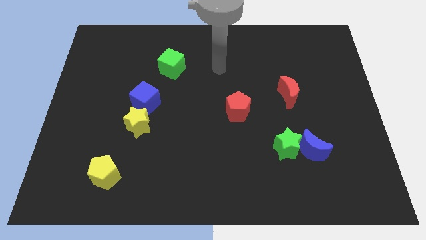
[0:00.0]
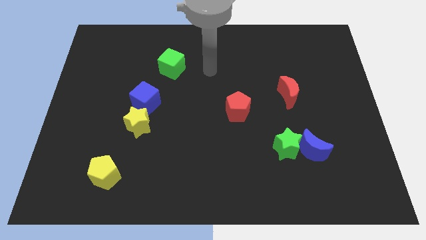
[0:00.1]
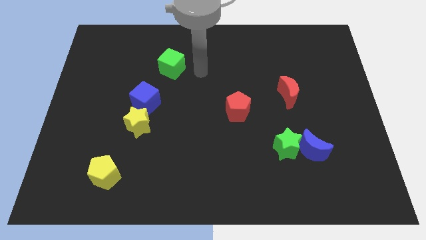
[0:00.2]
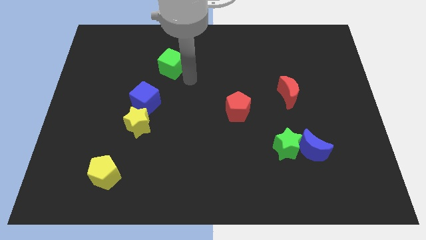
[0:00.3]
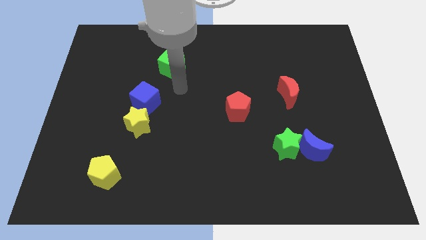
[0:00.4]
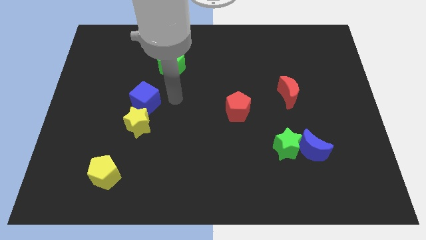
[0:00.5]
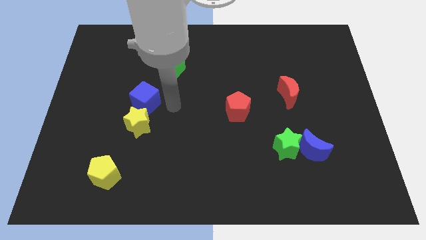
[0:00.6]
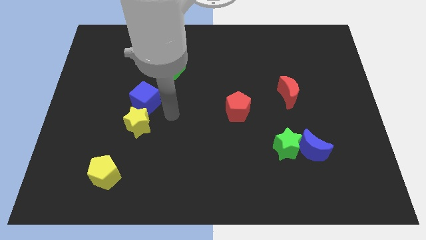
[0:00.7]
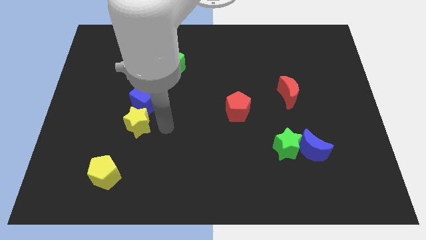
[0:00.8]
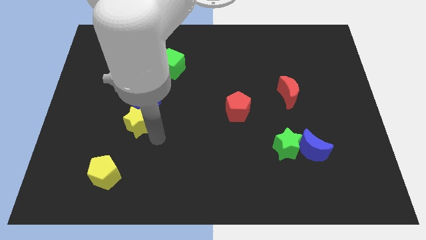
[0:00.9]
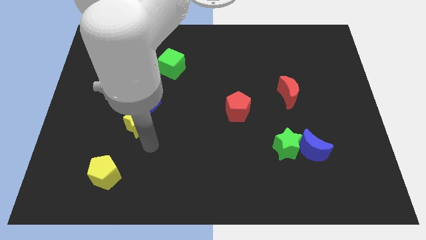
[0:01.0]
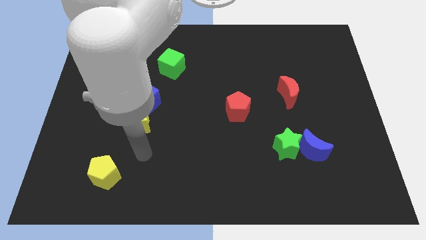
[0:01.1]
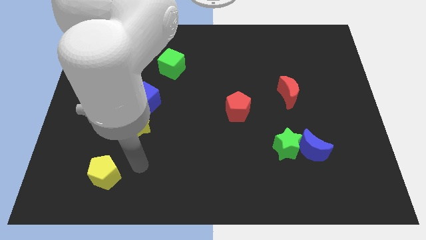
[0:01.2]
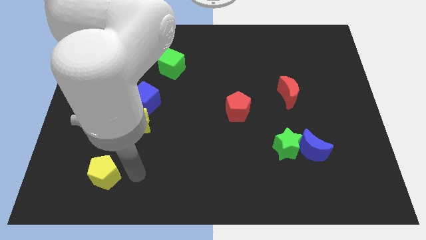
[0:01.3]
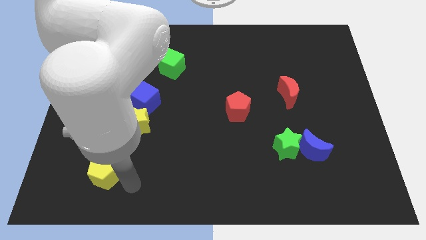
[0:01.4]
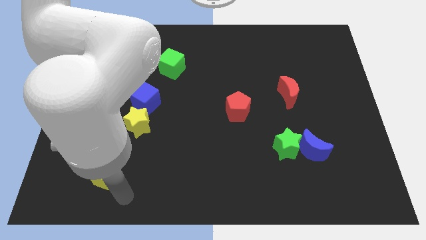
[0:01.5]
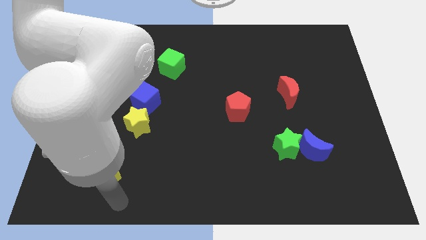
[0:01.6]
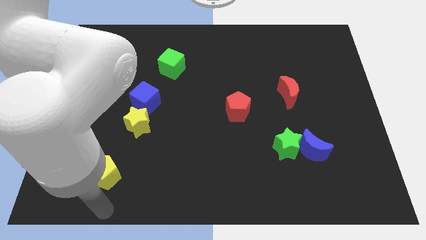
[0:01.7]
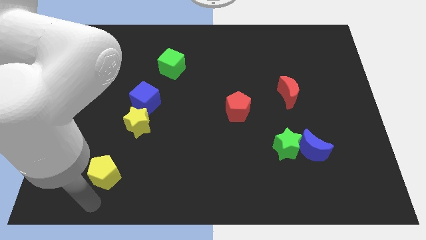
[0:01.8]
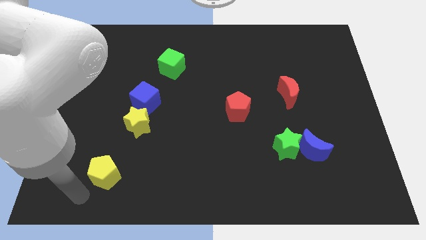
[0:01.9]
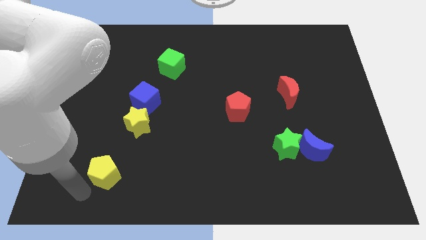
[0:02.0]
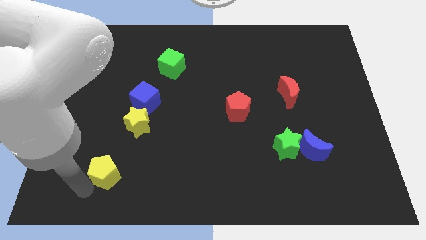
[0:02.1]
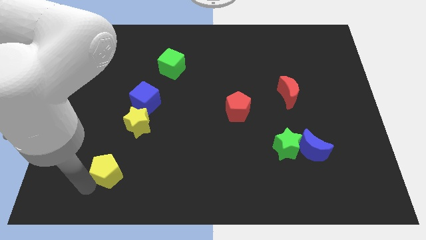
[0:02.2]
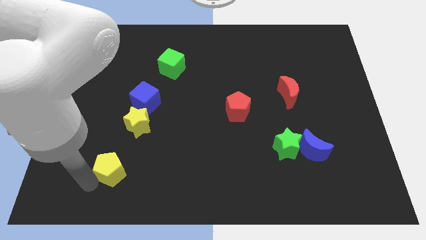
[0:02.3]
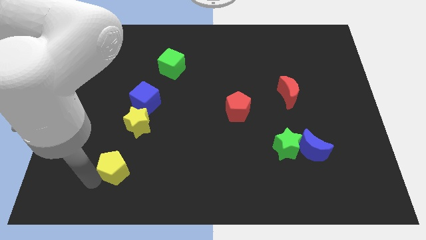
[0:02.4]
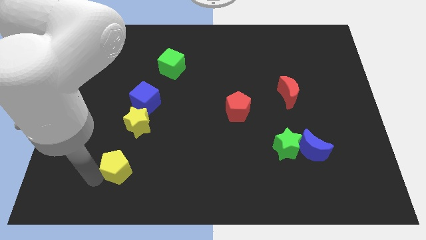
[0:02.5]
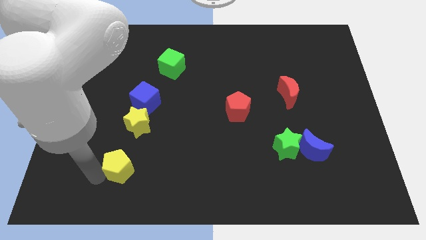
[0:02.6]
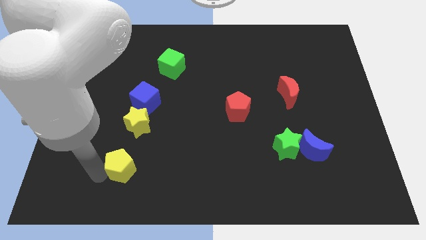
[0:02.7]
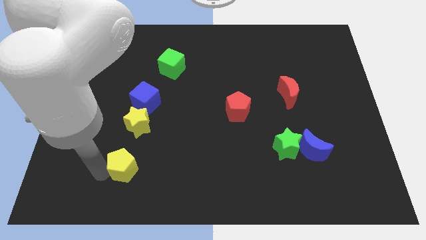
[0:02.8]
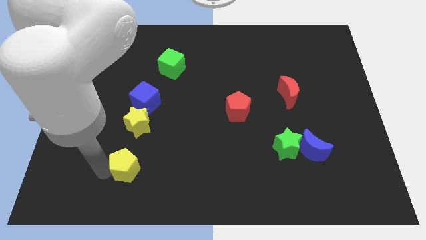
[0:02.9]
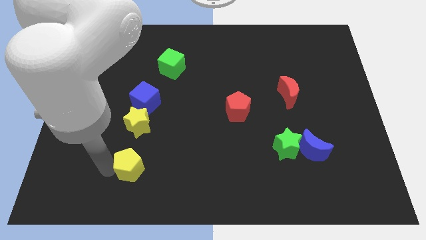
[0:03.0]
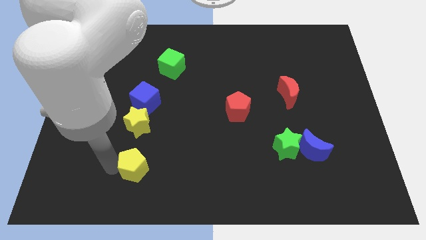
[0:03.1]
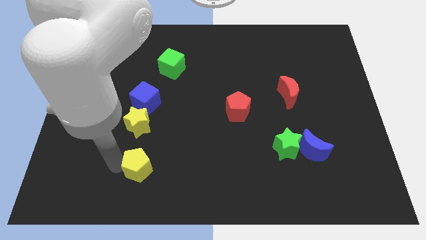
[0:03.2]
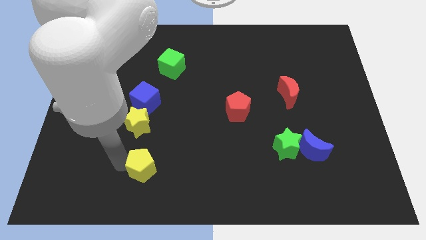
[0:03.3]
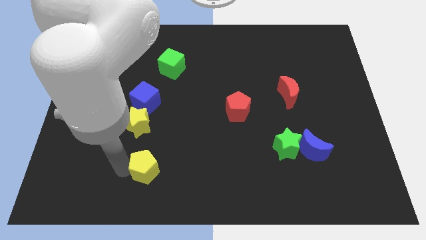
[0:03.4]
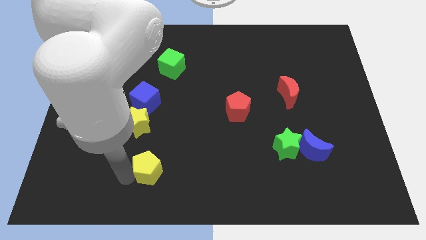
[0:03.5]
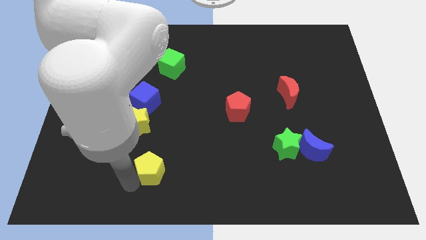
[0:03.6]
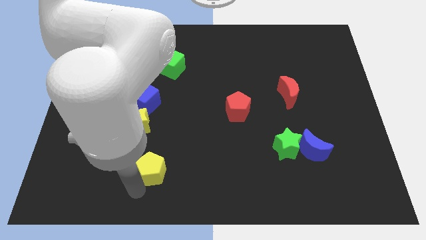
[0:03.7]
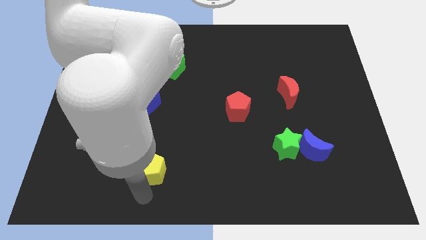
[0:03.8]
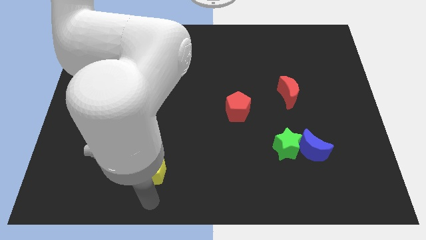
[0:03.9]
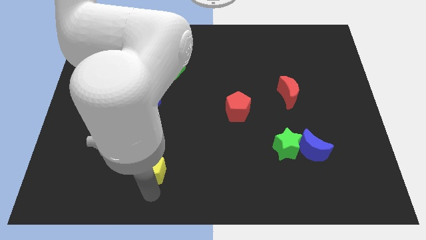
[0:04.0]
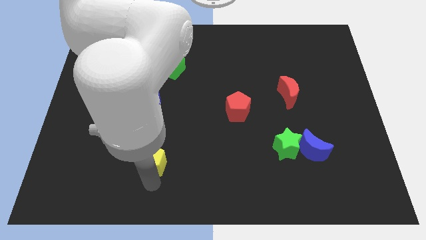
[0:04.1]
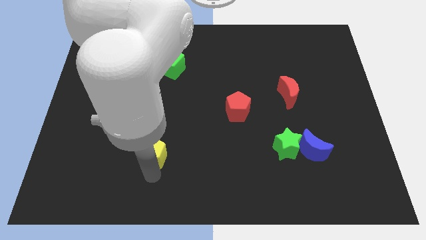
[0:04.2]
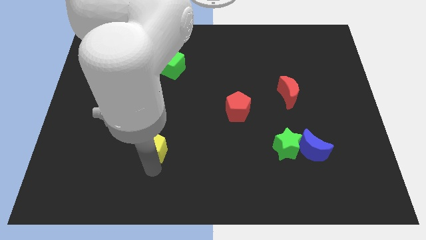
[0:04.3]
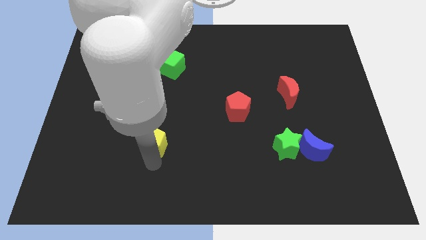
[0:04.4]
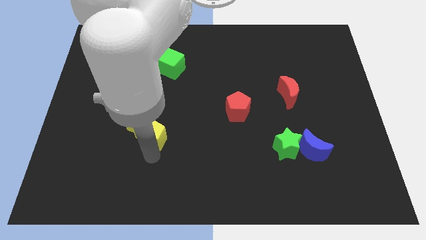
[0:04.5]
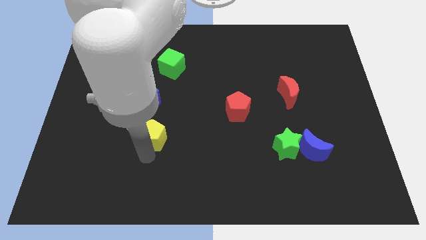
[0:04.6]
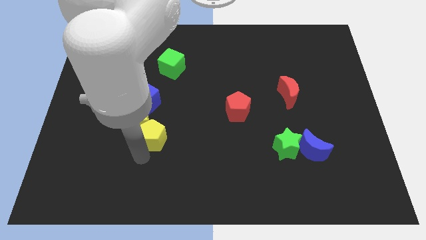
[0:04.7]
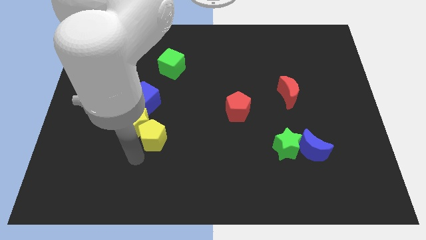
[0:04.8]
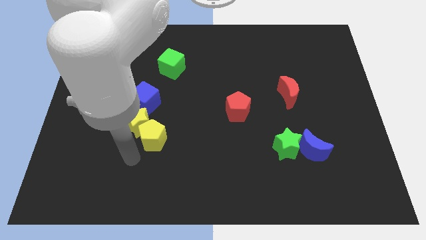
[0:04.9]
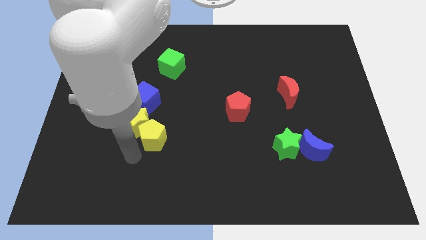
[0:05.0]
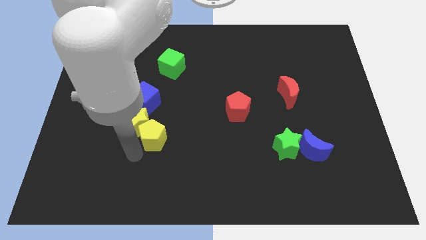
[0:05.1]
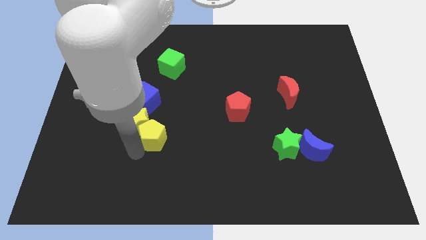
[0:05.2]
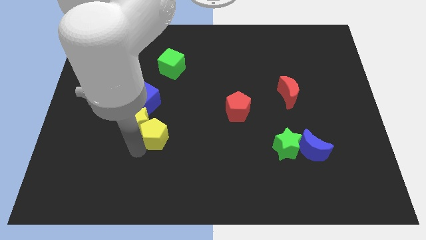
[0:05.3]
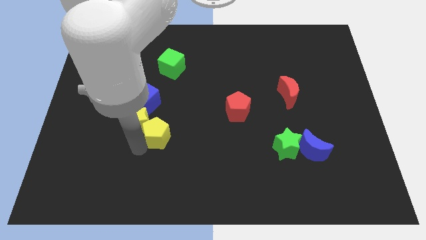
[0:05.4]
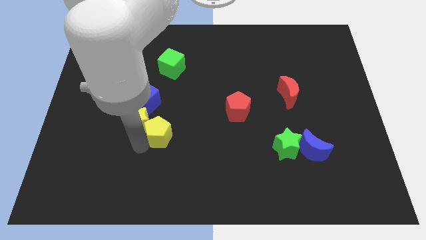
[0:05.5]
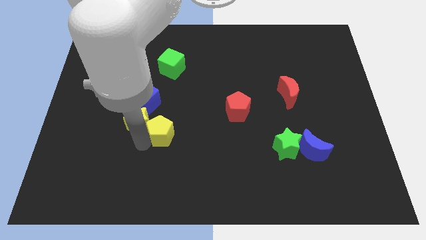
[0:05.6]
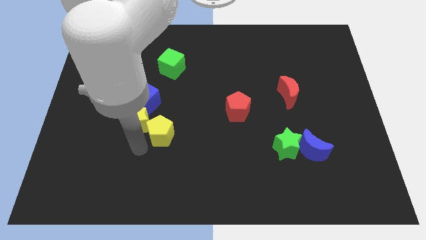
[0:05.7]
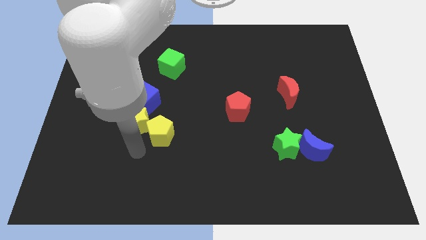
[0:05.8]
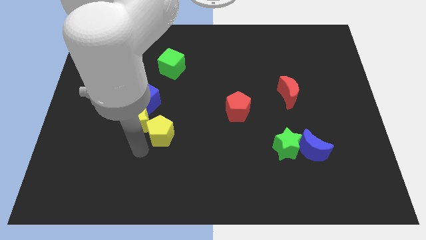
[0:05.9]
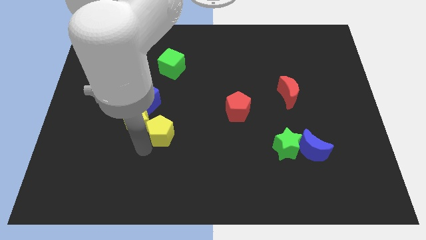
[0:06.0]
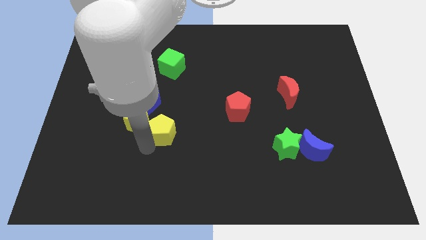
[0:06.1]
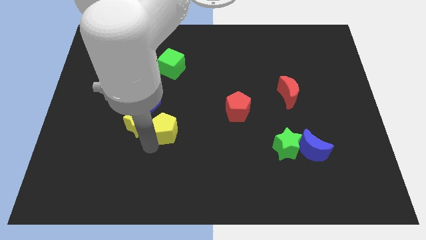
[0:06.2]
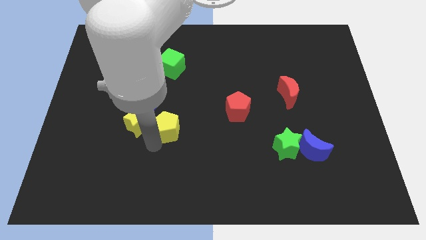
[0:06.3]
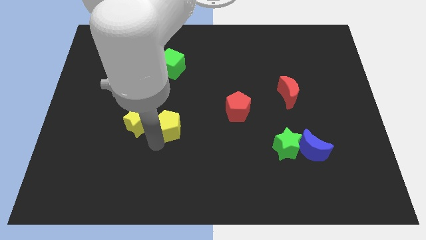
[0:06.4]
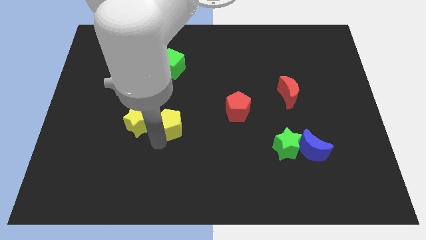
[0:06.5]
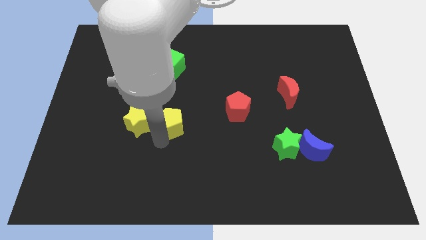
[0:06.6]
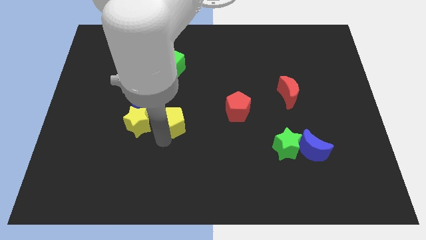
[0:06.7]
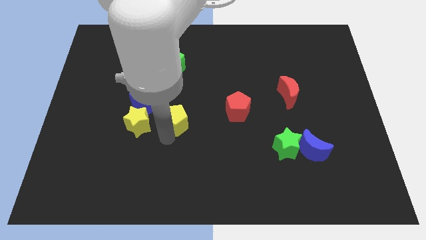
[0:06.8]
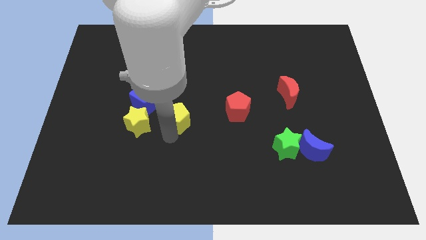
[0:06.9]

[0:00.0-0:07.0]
move the yellow pentagon upwards and to the right diagonally

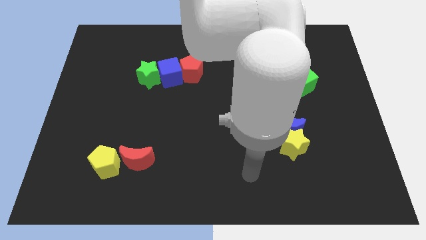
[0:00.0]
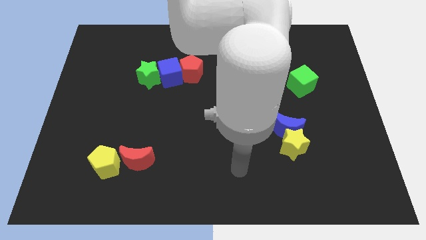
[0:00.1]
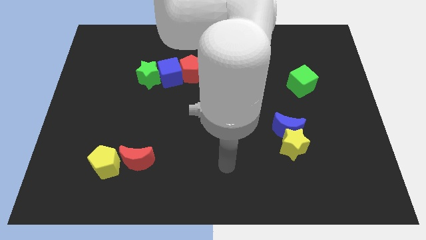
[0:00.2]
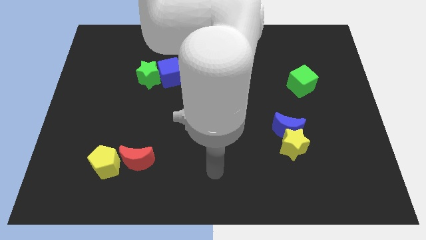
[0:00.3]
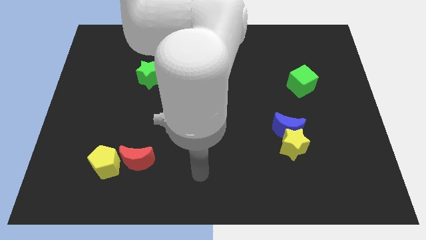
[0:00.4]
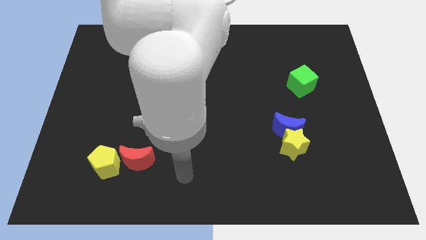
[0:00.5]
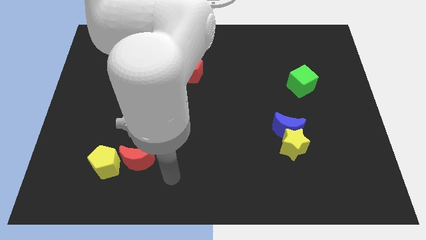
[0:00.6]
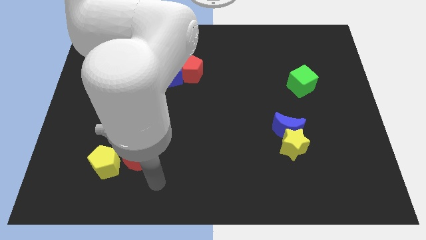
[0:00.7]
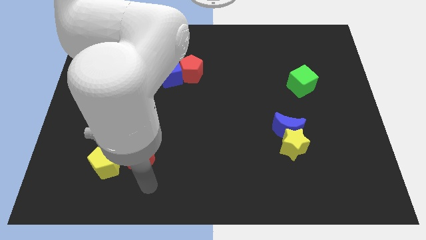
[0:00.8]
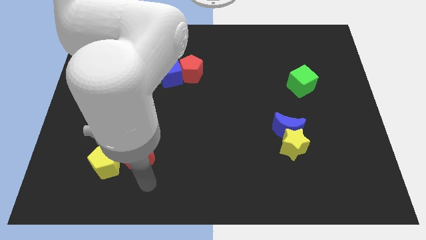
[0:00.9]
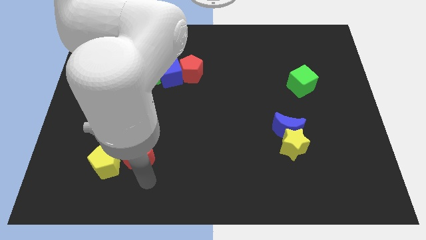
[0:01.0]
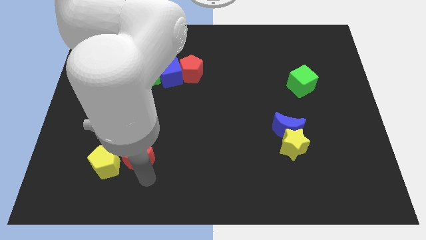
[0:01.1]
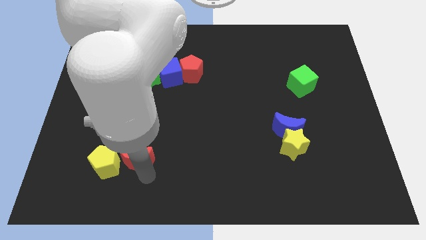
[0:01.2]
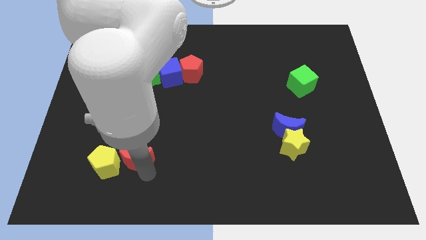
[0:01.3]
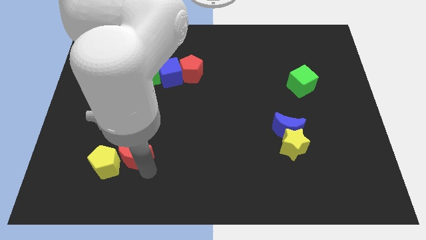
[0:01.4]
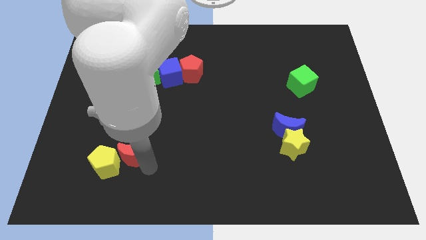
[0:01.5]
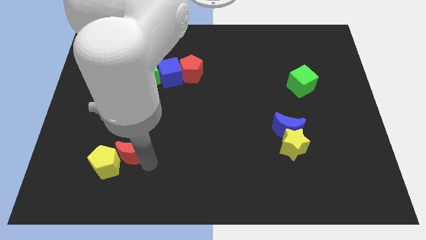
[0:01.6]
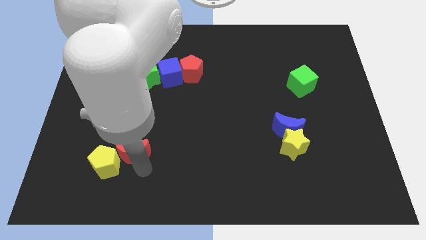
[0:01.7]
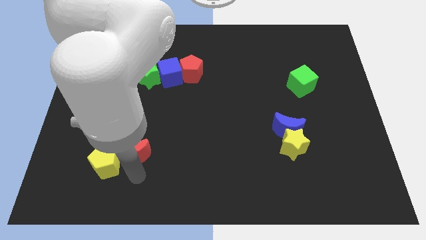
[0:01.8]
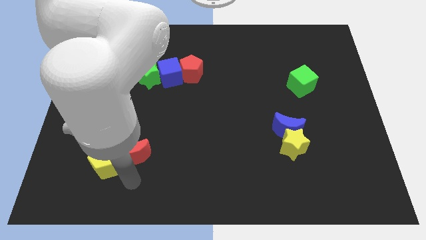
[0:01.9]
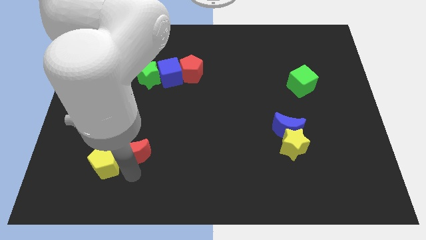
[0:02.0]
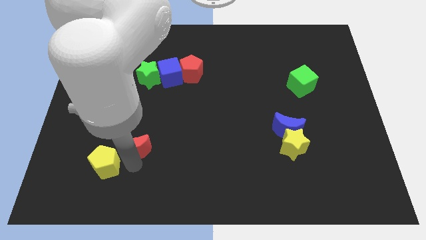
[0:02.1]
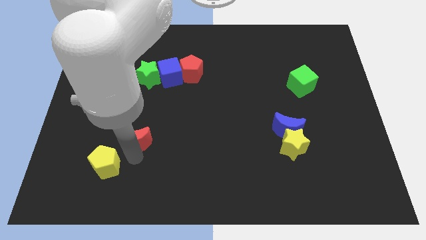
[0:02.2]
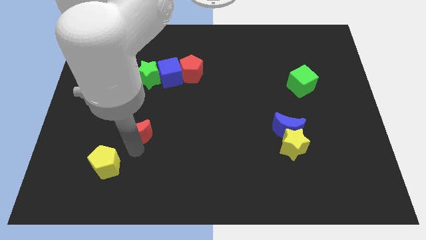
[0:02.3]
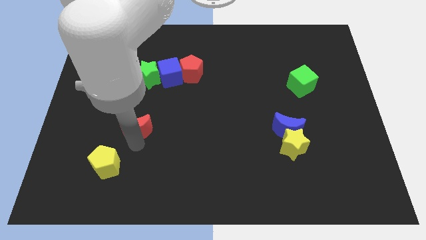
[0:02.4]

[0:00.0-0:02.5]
push the red moon up a bit
